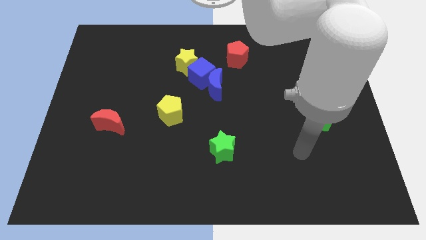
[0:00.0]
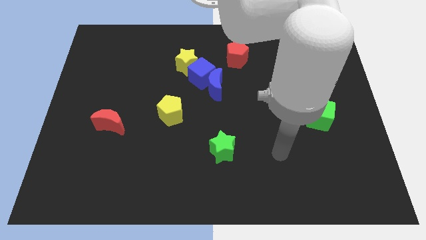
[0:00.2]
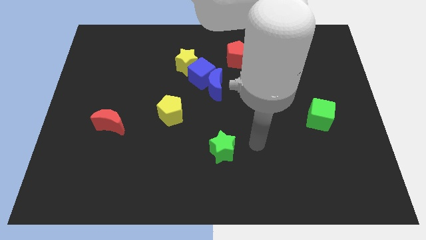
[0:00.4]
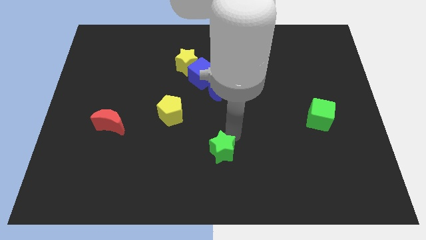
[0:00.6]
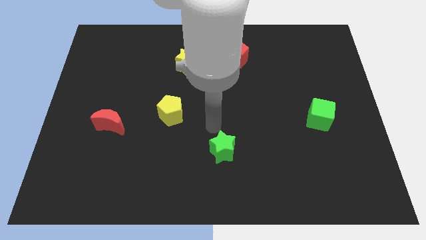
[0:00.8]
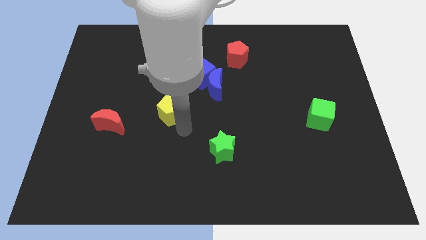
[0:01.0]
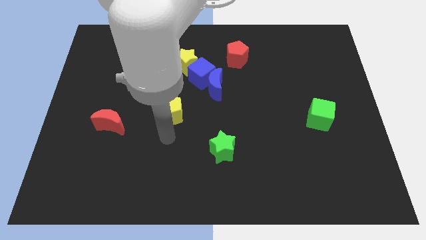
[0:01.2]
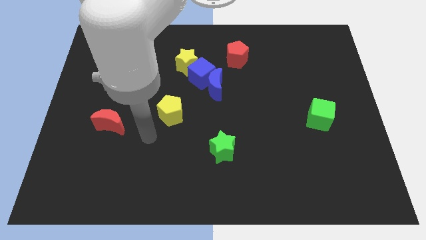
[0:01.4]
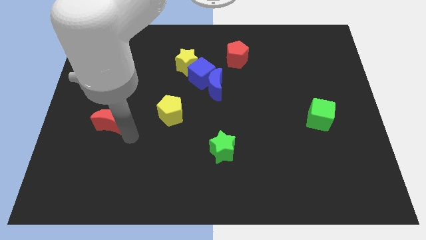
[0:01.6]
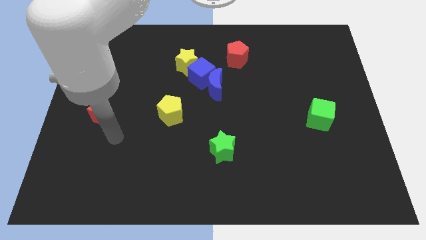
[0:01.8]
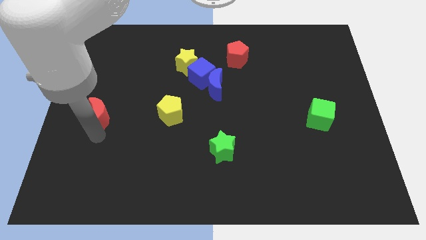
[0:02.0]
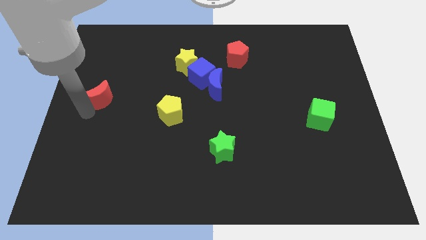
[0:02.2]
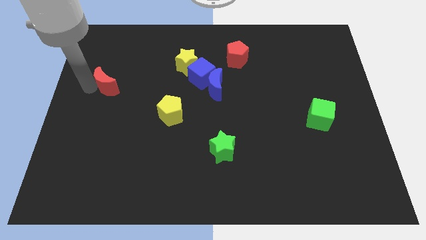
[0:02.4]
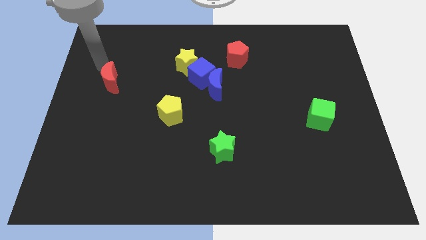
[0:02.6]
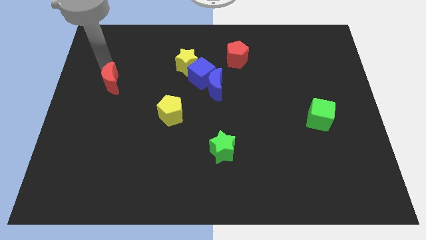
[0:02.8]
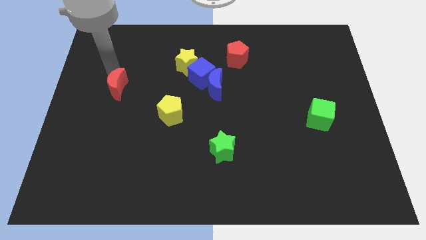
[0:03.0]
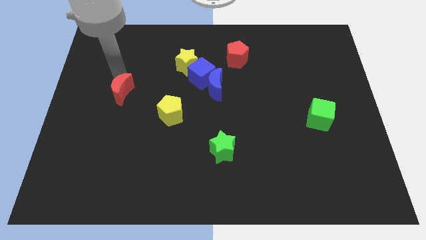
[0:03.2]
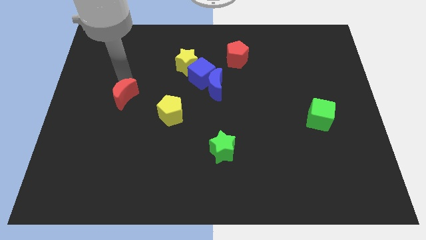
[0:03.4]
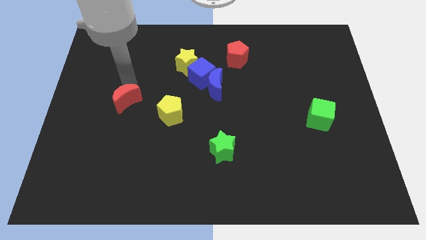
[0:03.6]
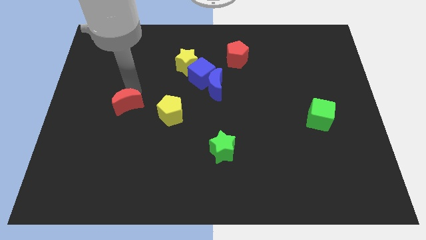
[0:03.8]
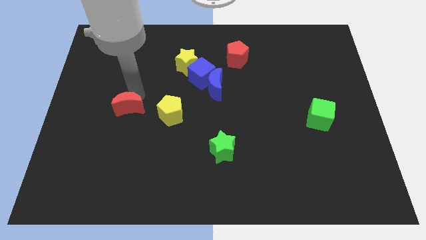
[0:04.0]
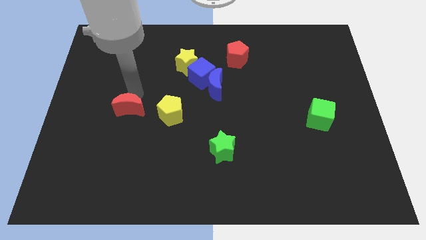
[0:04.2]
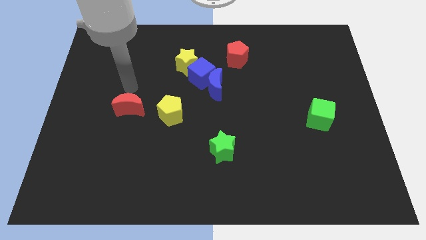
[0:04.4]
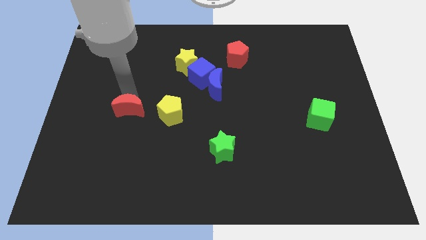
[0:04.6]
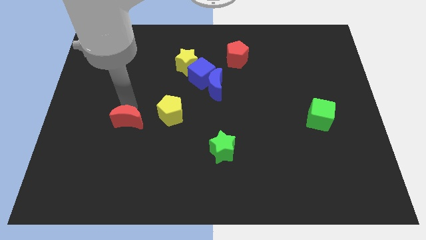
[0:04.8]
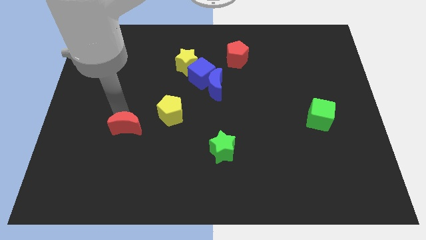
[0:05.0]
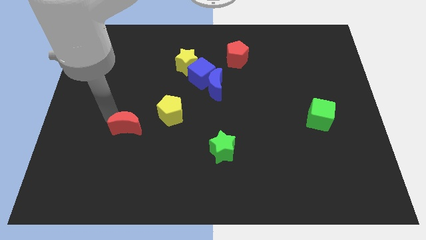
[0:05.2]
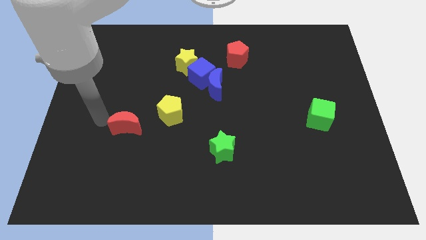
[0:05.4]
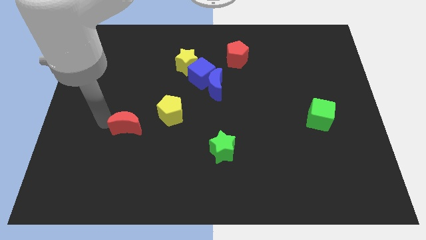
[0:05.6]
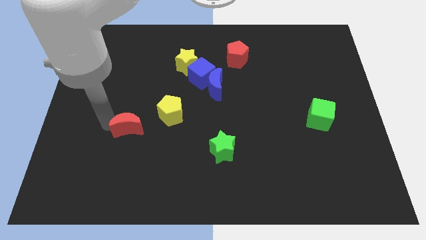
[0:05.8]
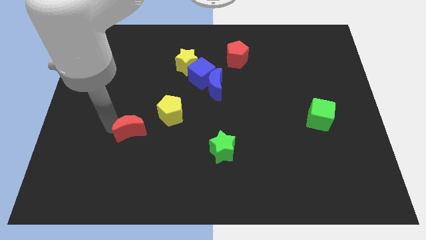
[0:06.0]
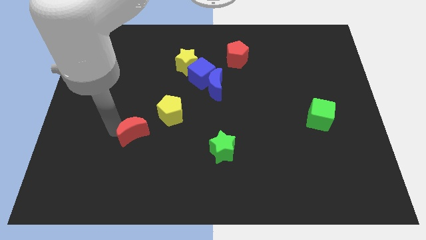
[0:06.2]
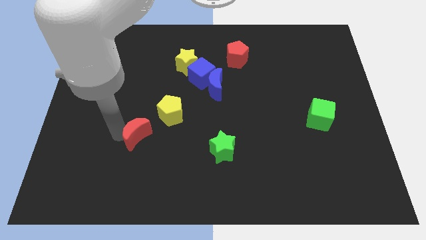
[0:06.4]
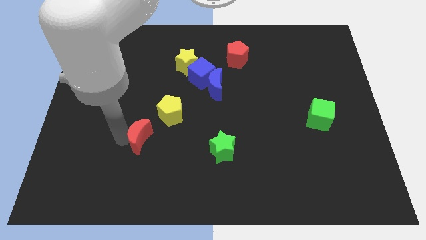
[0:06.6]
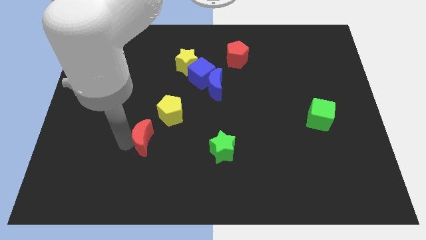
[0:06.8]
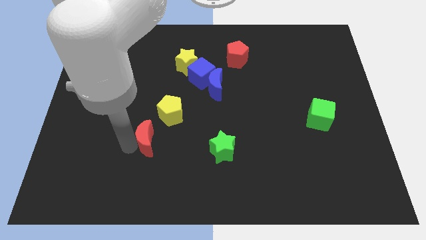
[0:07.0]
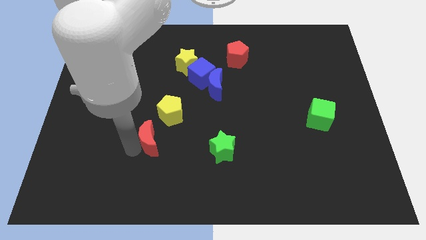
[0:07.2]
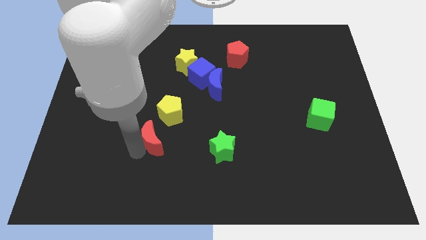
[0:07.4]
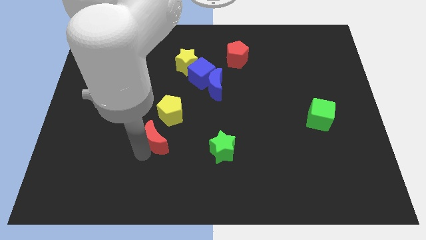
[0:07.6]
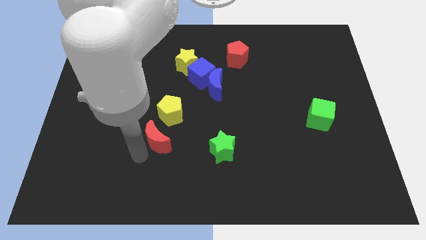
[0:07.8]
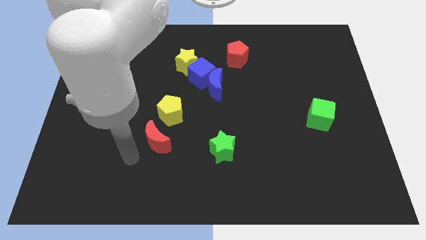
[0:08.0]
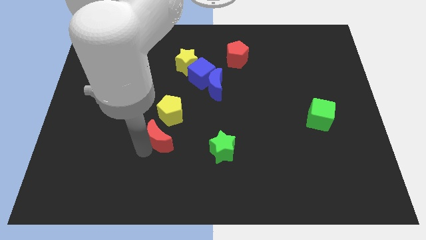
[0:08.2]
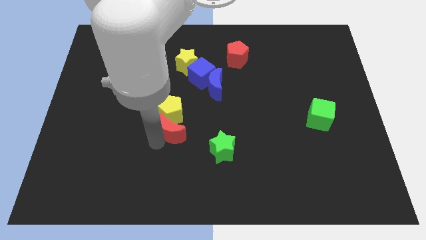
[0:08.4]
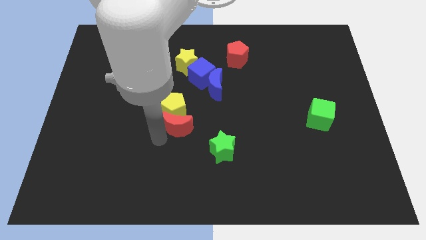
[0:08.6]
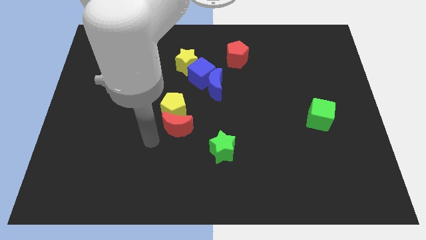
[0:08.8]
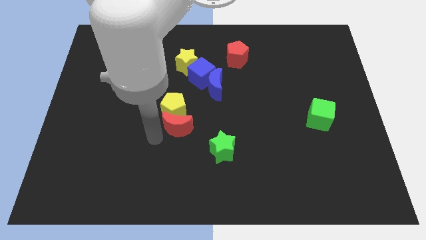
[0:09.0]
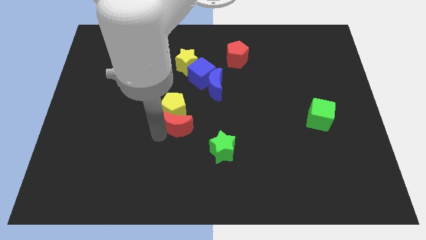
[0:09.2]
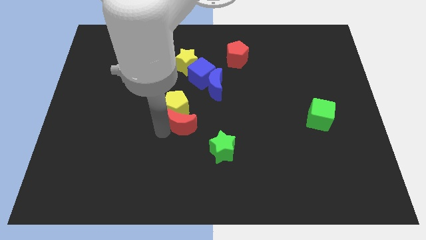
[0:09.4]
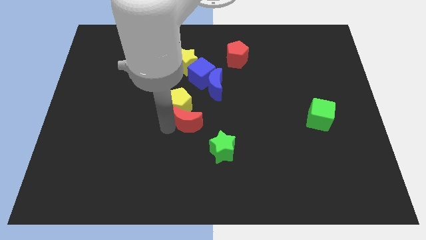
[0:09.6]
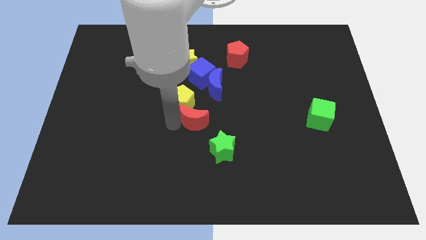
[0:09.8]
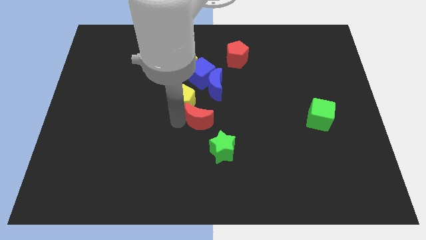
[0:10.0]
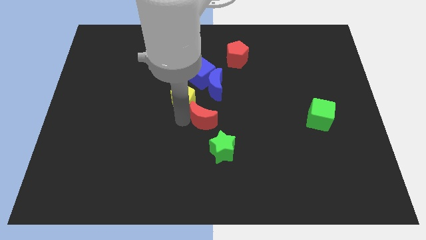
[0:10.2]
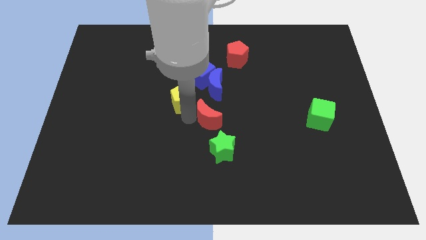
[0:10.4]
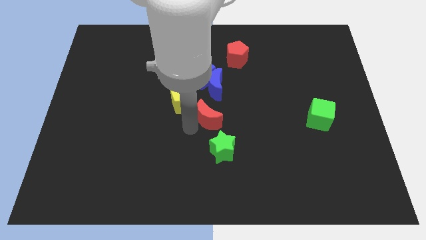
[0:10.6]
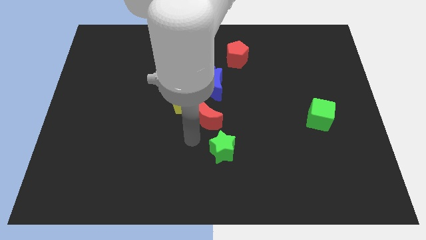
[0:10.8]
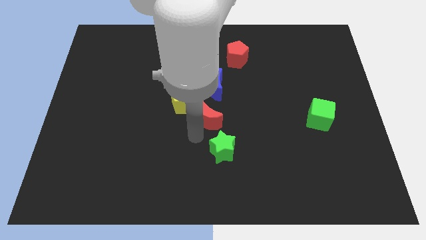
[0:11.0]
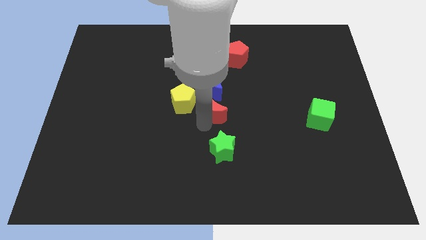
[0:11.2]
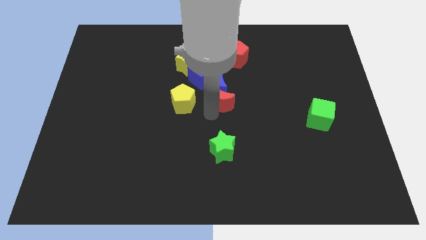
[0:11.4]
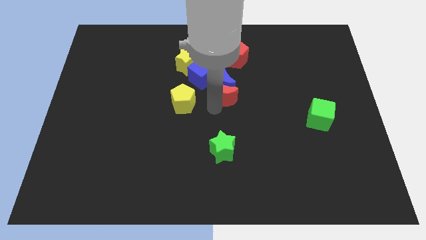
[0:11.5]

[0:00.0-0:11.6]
move the red moon below the red pentagon

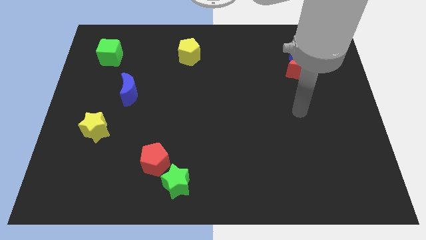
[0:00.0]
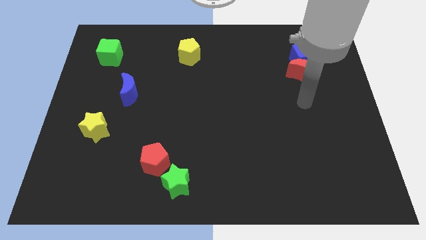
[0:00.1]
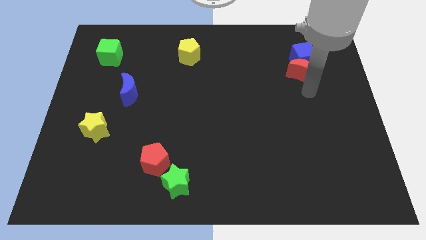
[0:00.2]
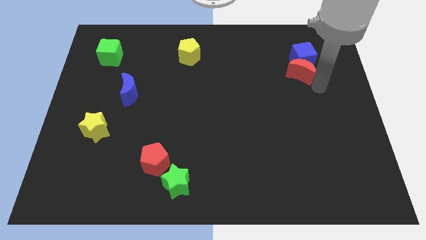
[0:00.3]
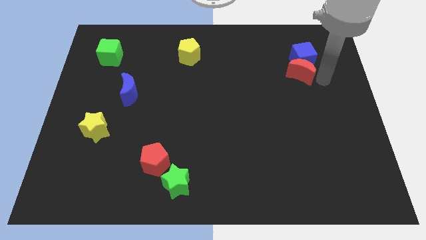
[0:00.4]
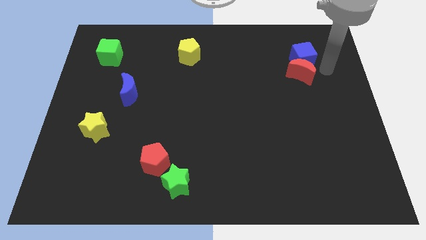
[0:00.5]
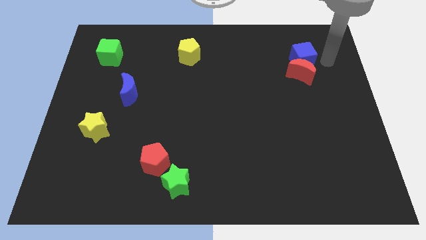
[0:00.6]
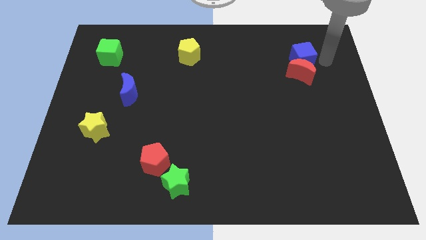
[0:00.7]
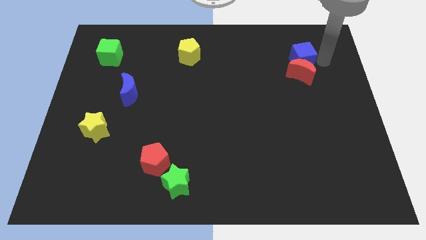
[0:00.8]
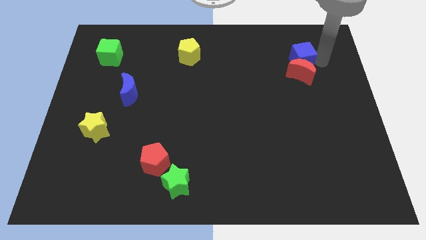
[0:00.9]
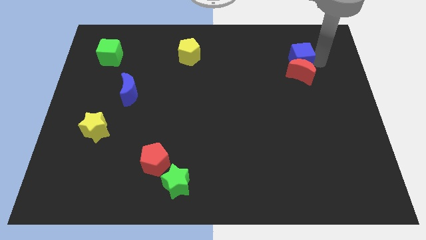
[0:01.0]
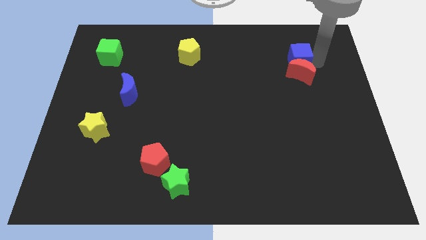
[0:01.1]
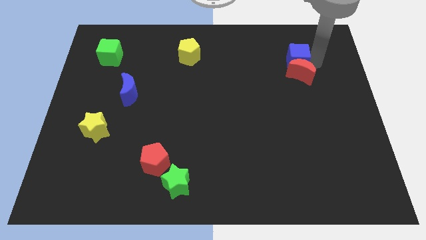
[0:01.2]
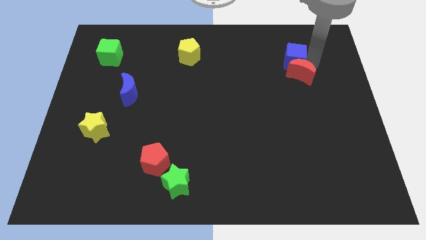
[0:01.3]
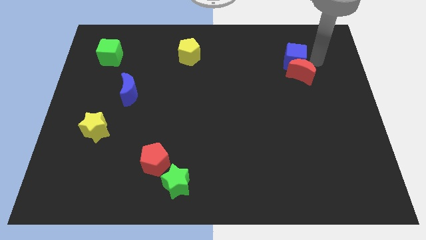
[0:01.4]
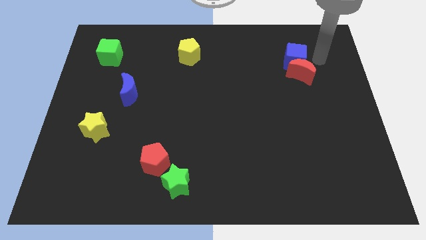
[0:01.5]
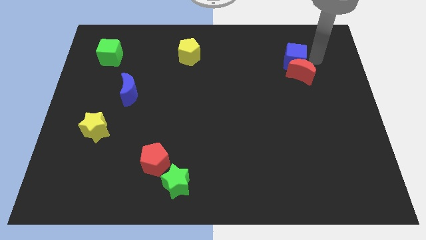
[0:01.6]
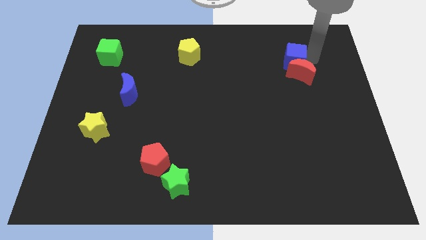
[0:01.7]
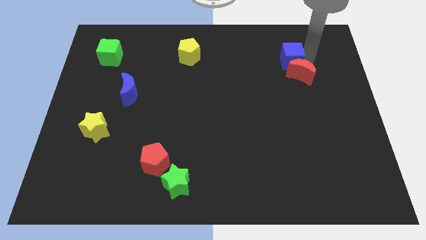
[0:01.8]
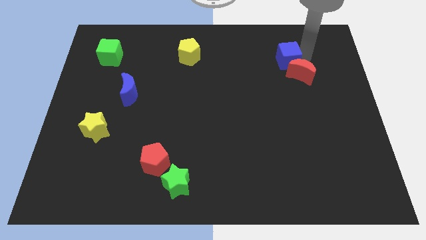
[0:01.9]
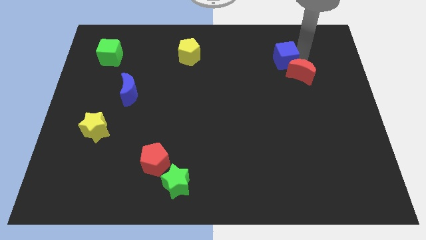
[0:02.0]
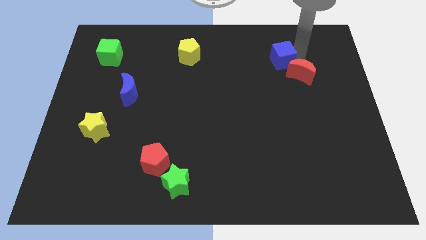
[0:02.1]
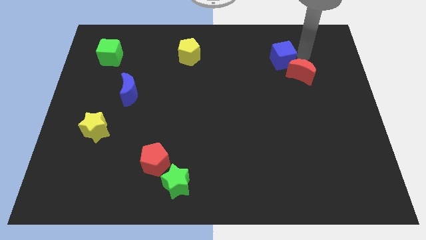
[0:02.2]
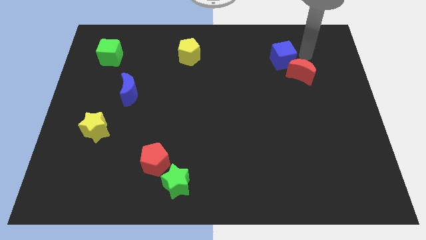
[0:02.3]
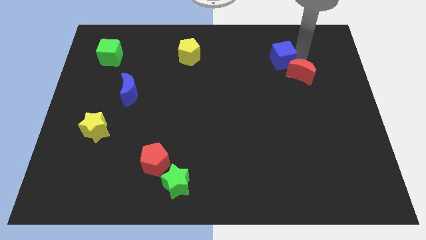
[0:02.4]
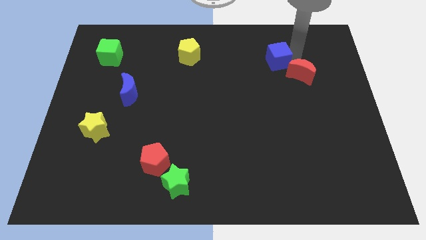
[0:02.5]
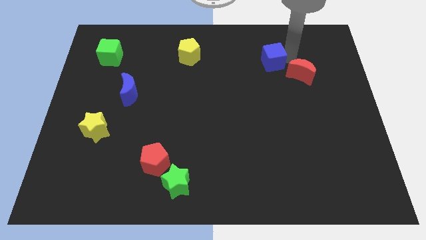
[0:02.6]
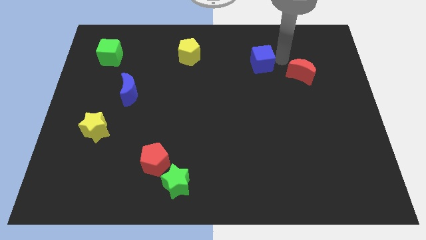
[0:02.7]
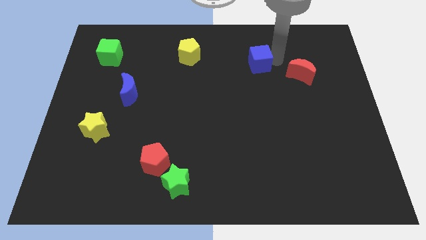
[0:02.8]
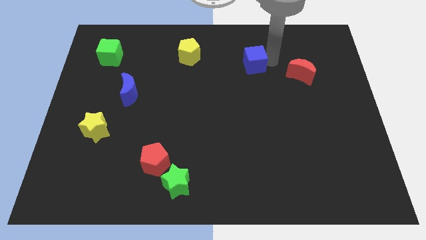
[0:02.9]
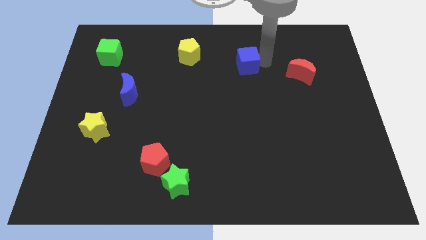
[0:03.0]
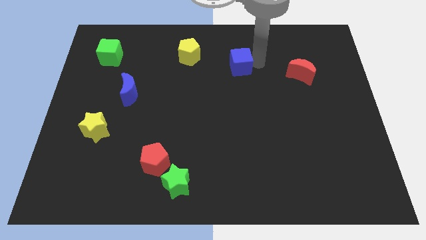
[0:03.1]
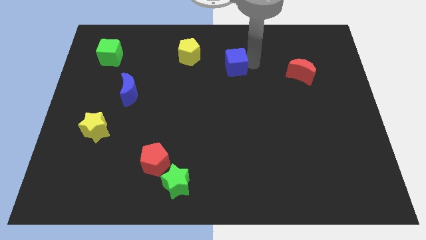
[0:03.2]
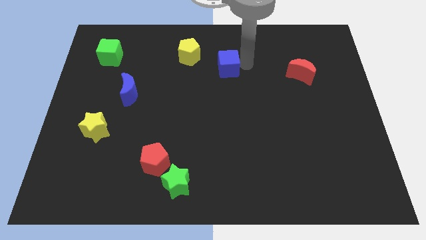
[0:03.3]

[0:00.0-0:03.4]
put the blue cube to the bottom right side of the yellow pentagon
